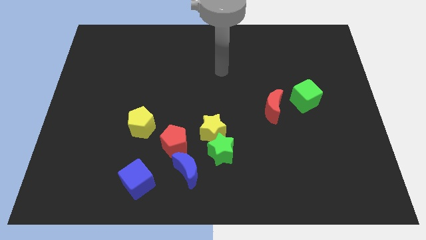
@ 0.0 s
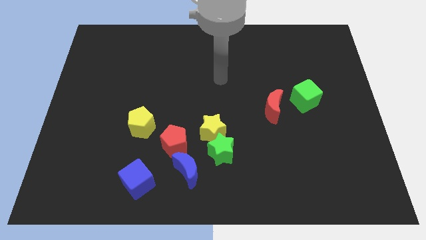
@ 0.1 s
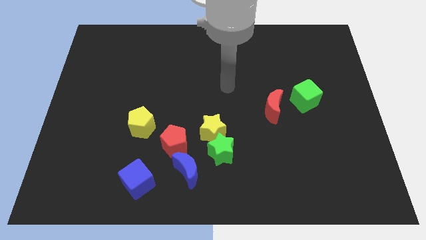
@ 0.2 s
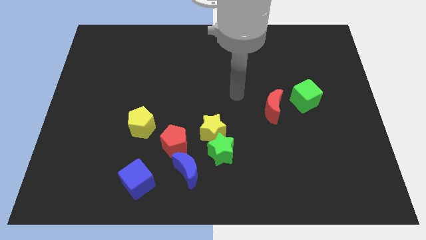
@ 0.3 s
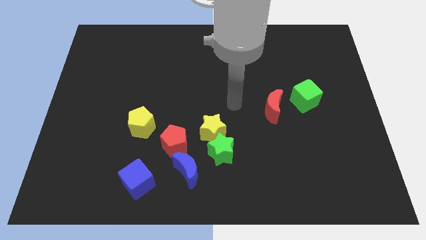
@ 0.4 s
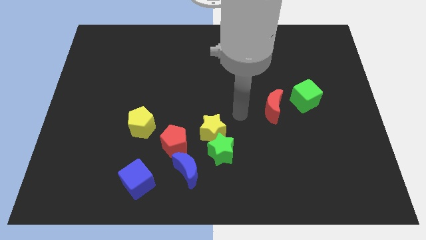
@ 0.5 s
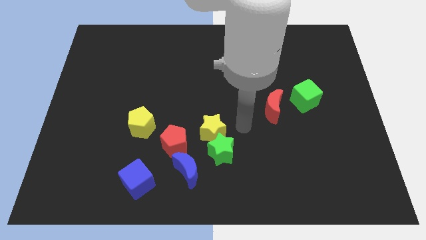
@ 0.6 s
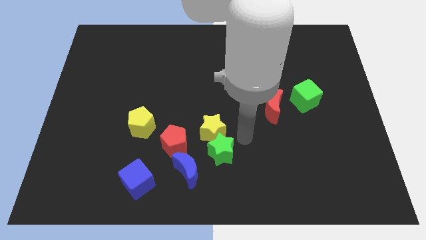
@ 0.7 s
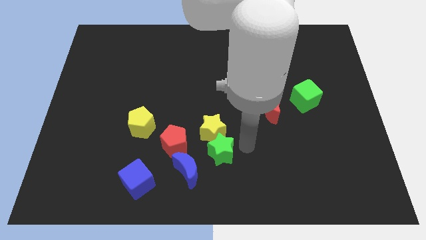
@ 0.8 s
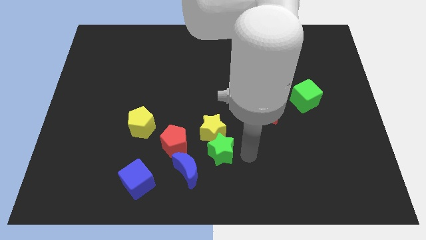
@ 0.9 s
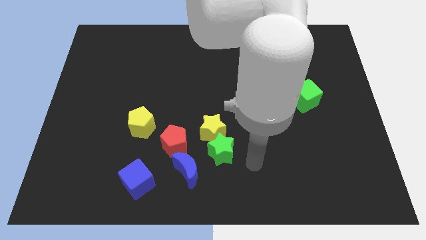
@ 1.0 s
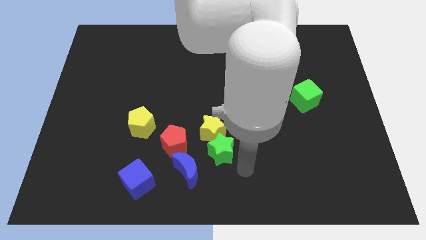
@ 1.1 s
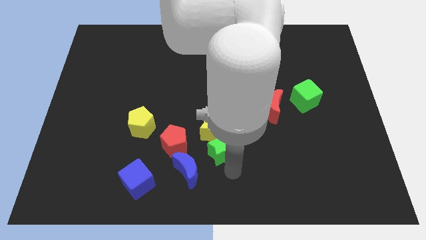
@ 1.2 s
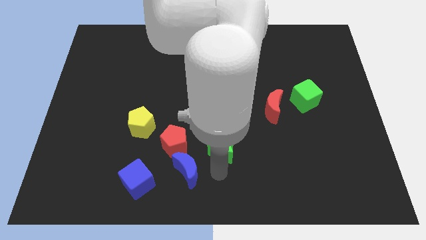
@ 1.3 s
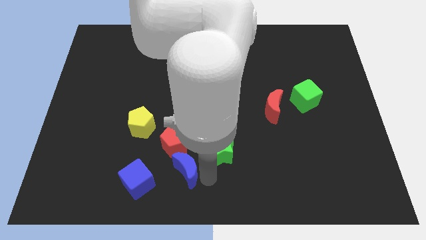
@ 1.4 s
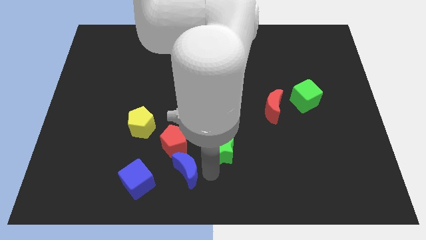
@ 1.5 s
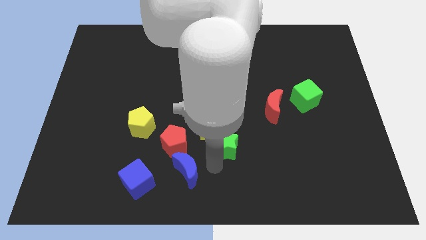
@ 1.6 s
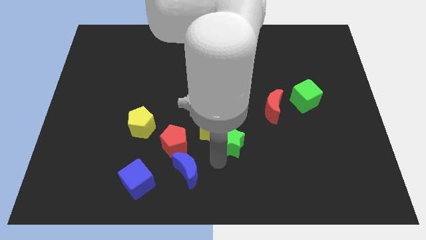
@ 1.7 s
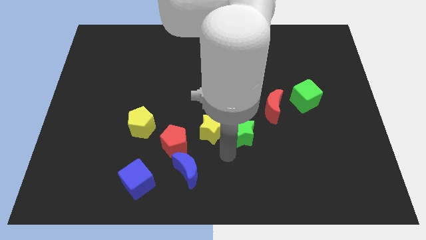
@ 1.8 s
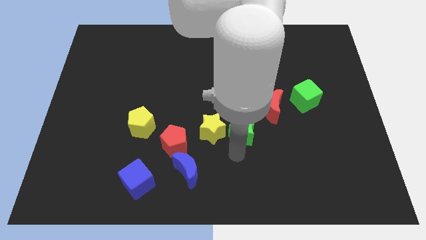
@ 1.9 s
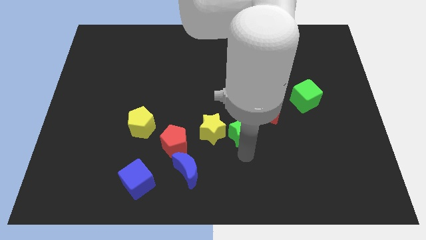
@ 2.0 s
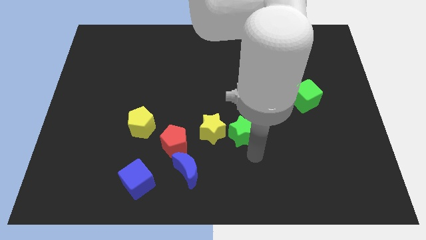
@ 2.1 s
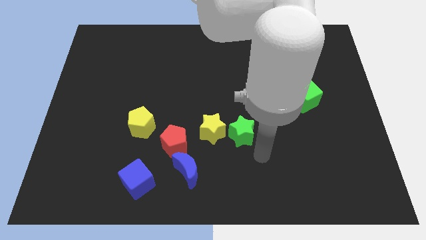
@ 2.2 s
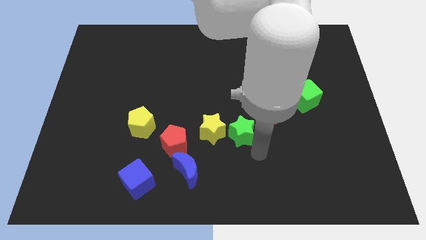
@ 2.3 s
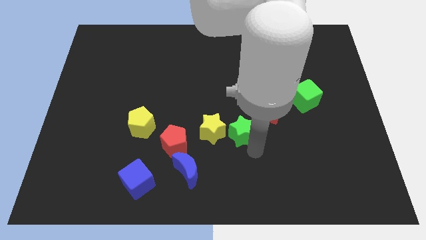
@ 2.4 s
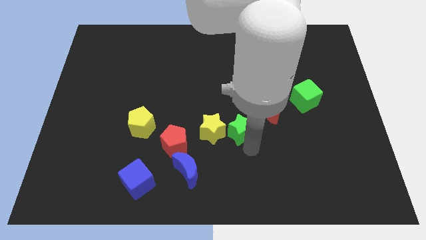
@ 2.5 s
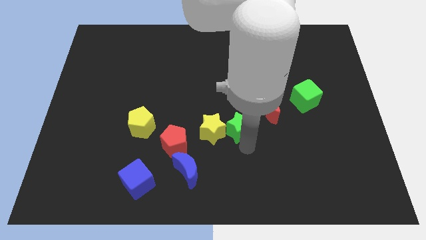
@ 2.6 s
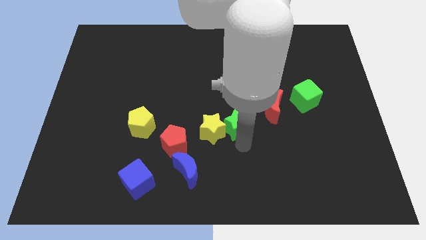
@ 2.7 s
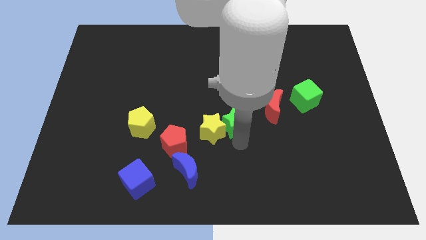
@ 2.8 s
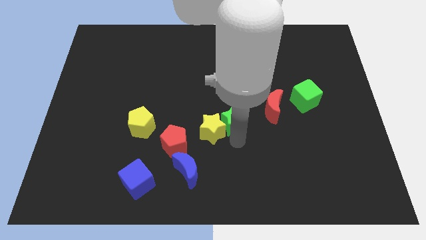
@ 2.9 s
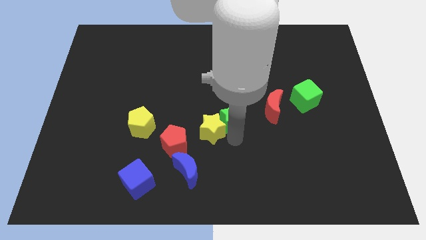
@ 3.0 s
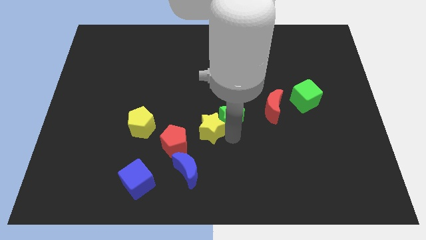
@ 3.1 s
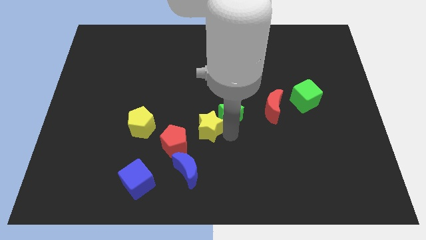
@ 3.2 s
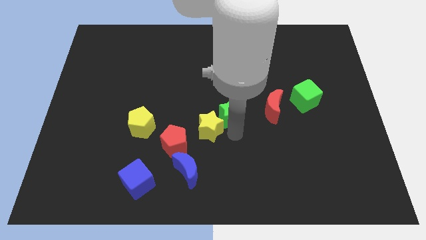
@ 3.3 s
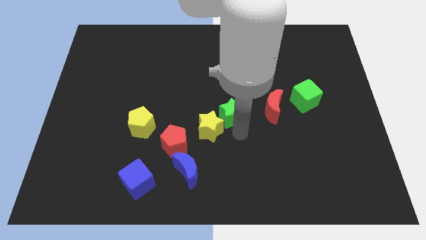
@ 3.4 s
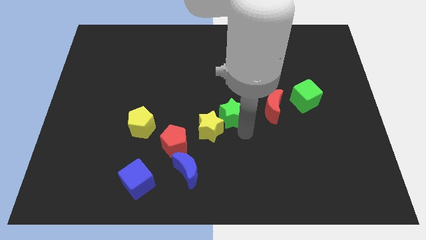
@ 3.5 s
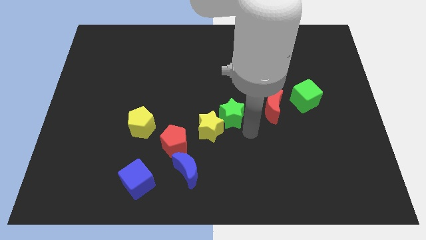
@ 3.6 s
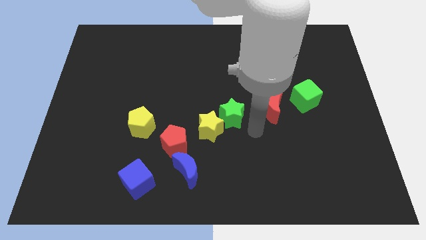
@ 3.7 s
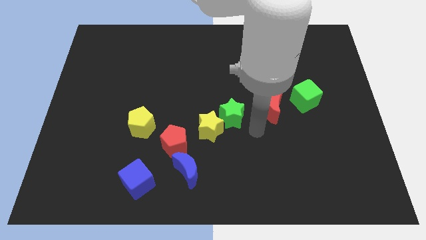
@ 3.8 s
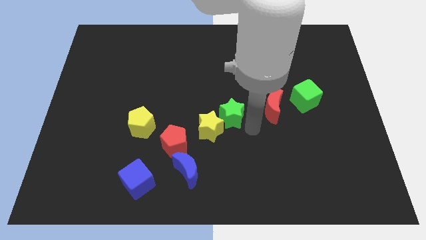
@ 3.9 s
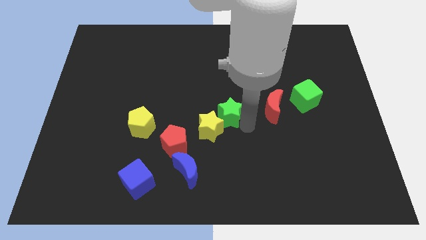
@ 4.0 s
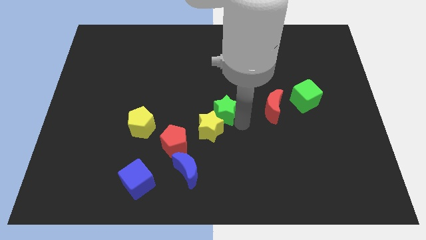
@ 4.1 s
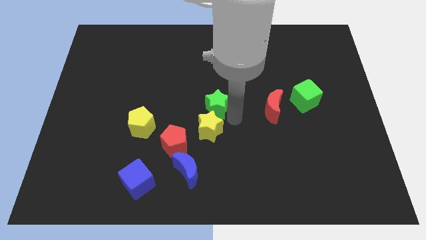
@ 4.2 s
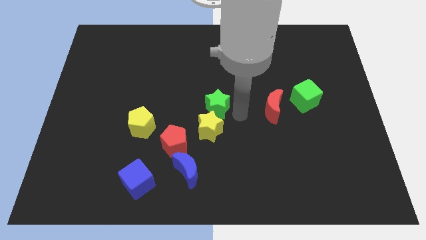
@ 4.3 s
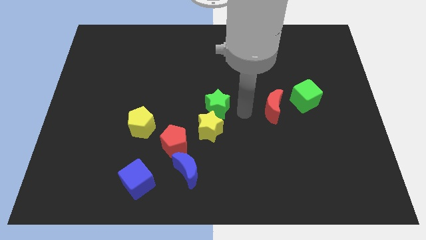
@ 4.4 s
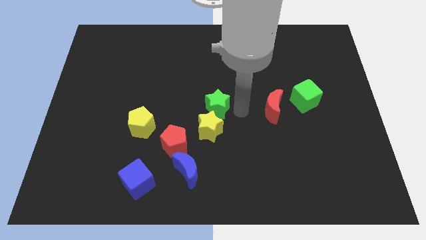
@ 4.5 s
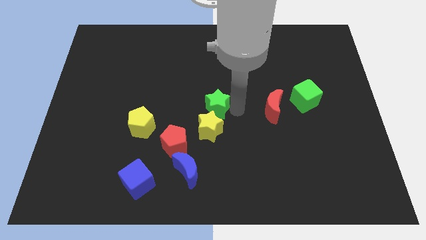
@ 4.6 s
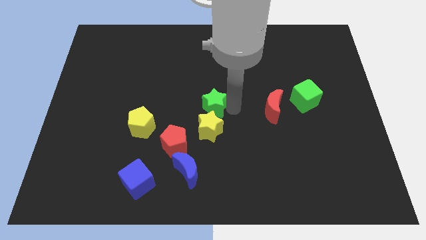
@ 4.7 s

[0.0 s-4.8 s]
move the green star diagonally up and to the left slightly

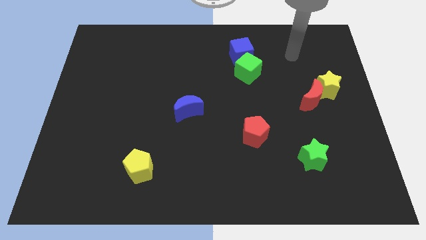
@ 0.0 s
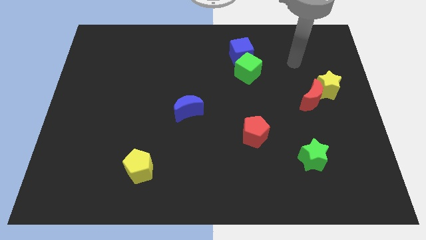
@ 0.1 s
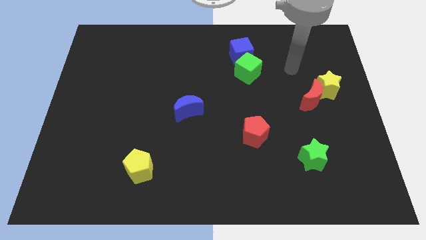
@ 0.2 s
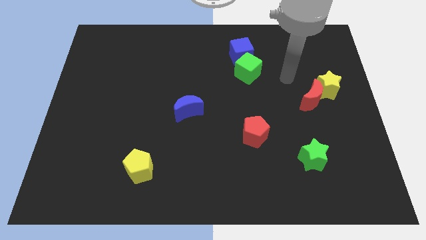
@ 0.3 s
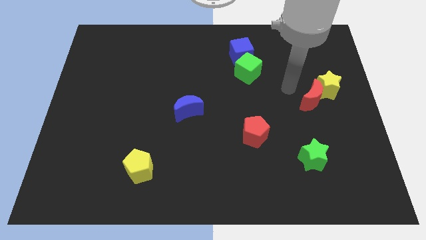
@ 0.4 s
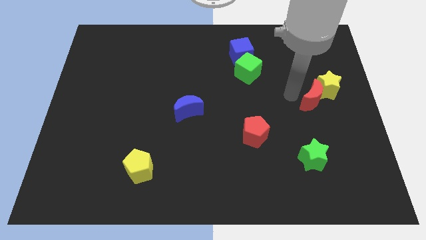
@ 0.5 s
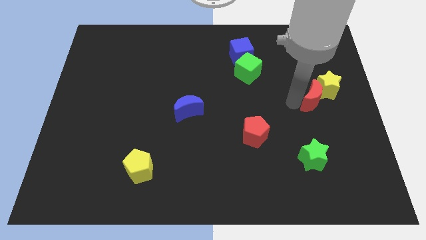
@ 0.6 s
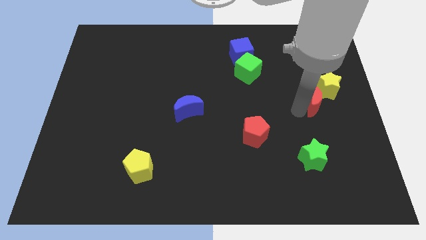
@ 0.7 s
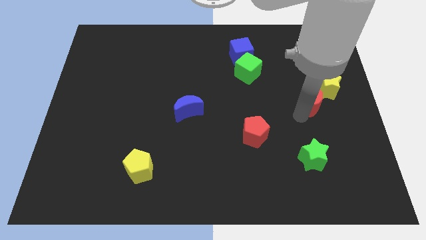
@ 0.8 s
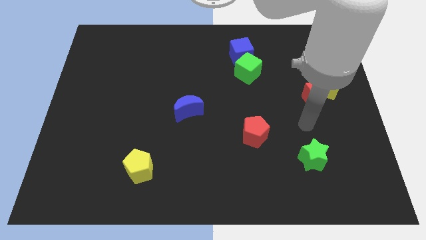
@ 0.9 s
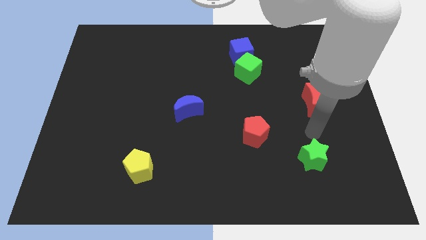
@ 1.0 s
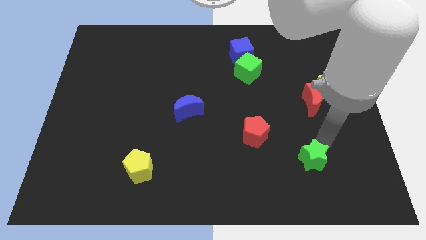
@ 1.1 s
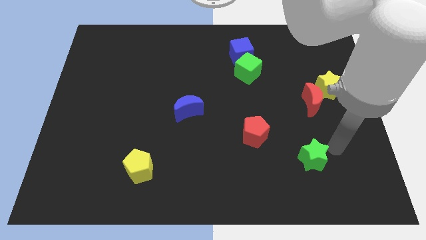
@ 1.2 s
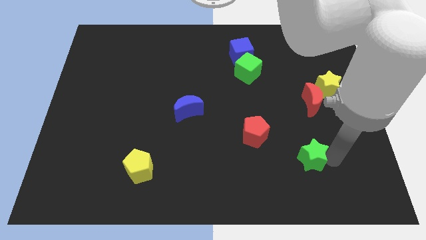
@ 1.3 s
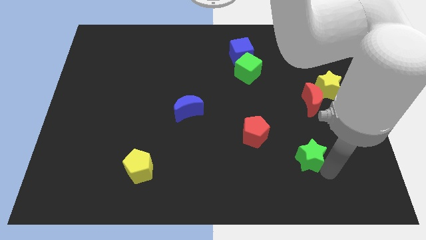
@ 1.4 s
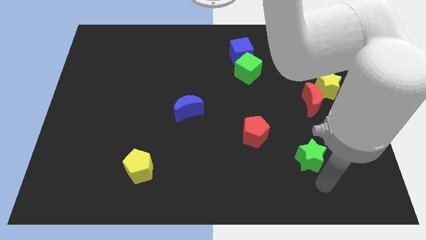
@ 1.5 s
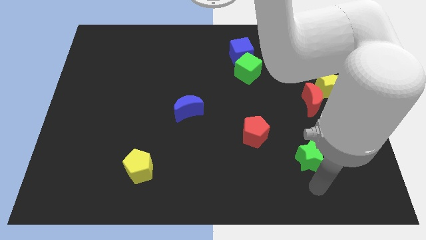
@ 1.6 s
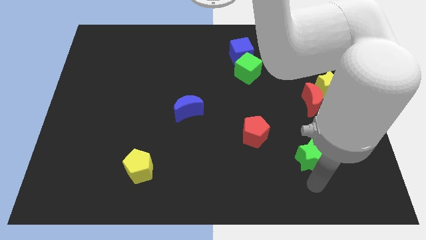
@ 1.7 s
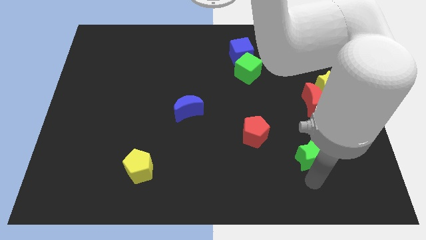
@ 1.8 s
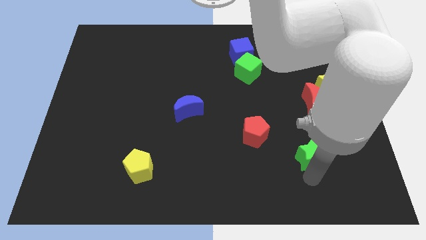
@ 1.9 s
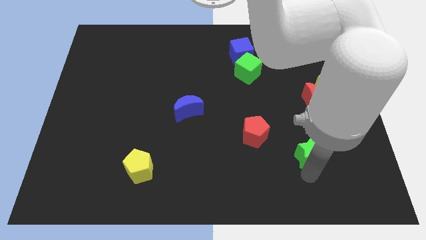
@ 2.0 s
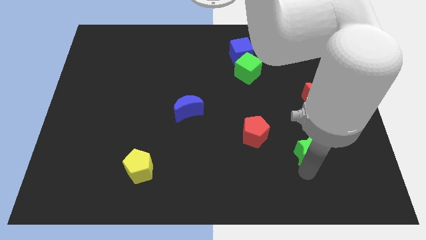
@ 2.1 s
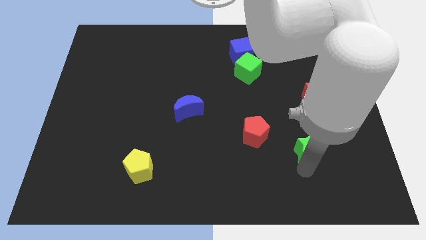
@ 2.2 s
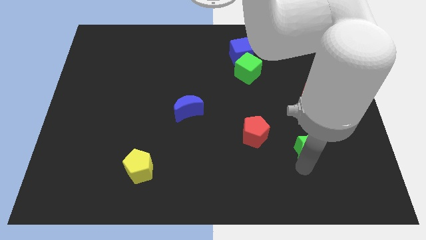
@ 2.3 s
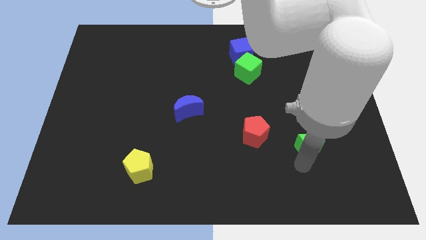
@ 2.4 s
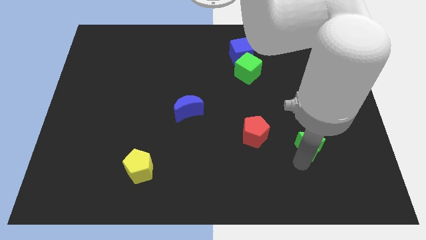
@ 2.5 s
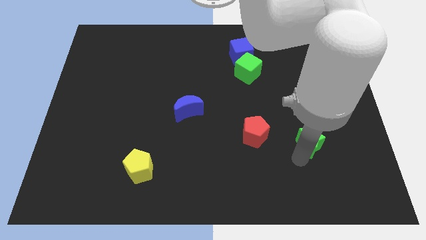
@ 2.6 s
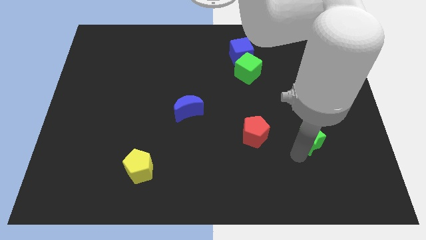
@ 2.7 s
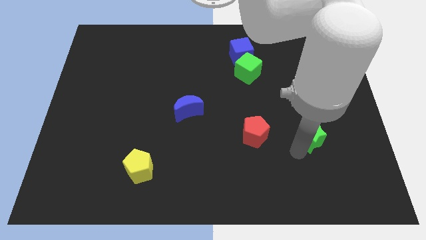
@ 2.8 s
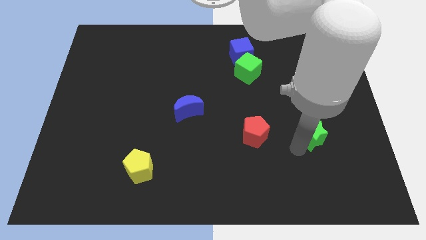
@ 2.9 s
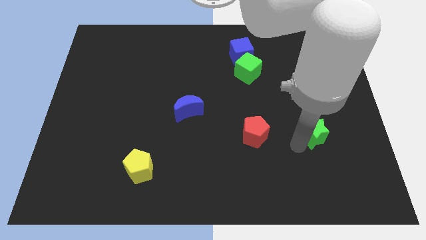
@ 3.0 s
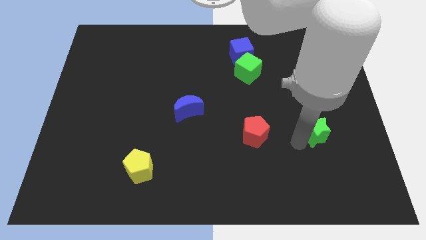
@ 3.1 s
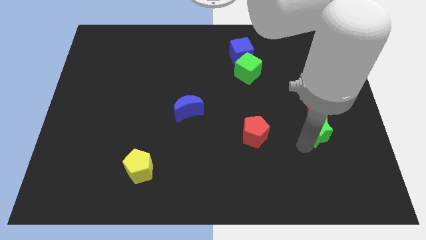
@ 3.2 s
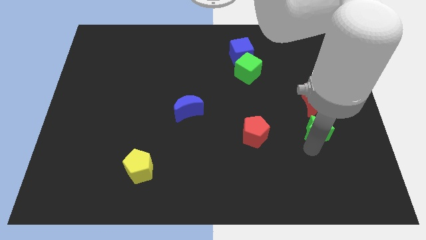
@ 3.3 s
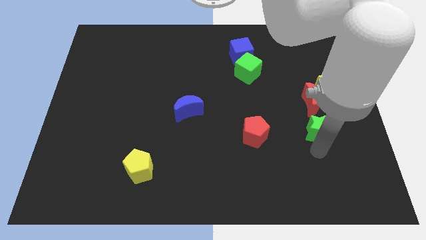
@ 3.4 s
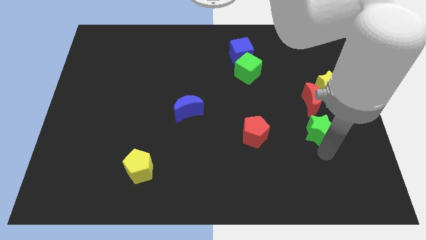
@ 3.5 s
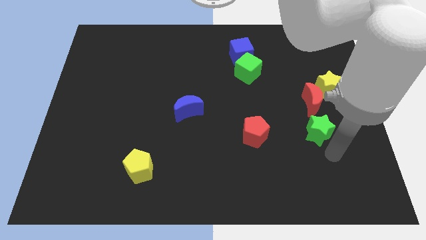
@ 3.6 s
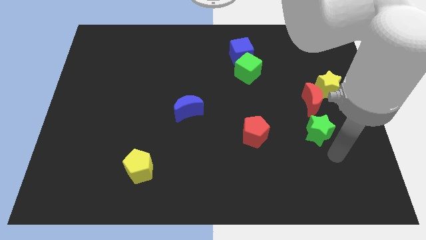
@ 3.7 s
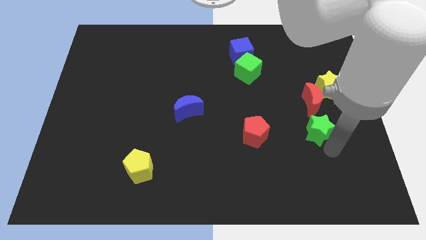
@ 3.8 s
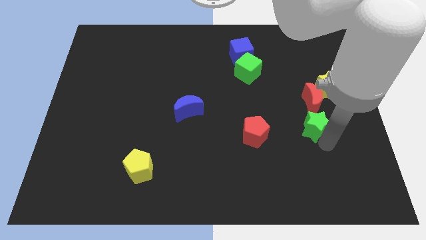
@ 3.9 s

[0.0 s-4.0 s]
slightly move the green star up
